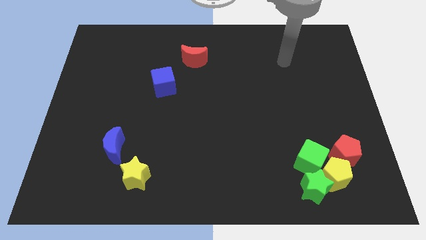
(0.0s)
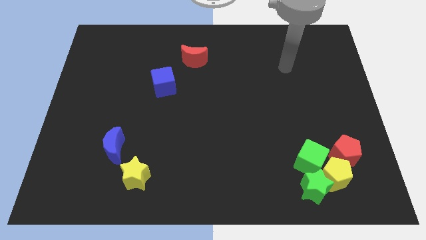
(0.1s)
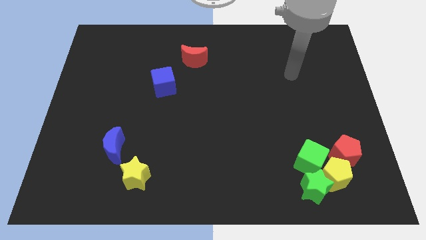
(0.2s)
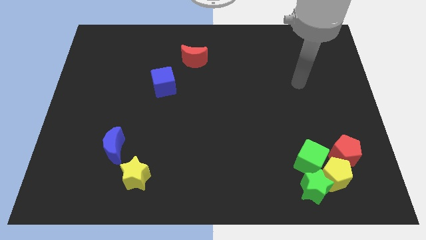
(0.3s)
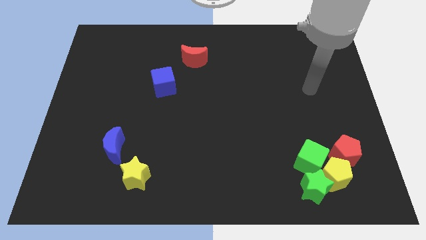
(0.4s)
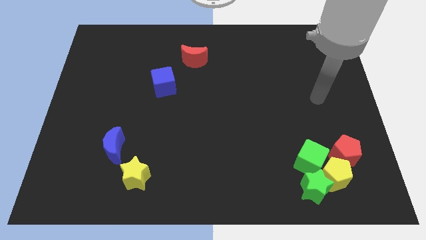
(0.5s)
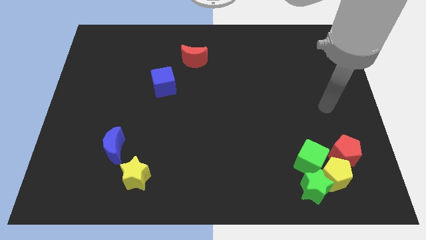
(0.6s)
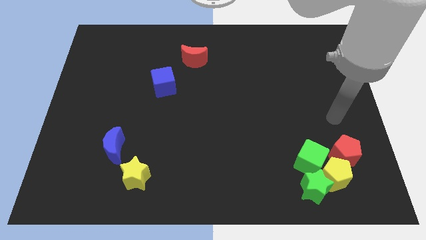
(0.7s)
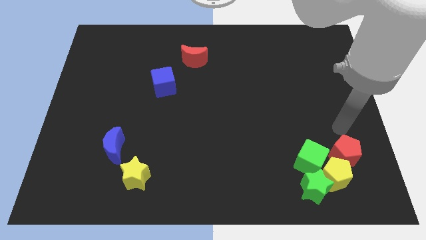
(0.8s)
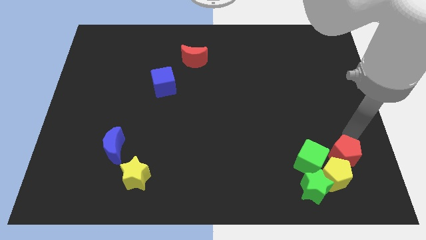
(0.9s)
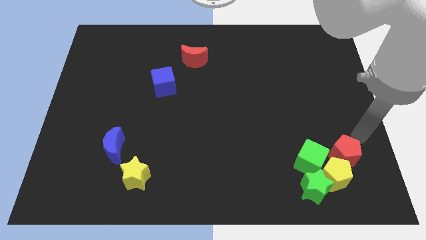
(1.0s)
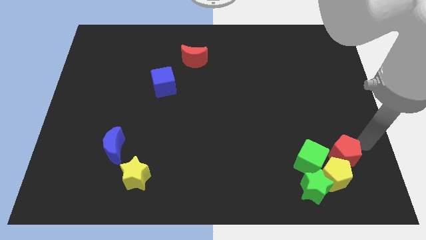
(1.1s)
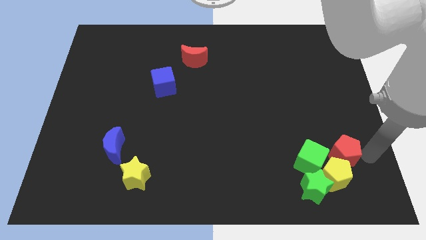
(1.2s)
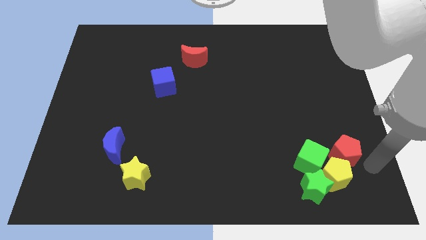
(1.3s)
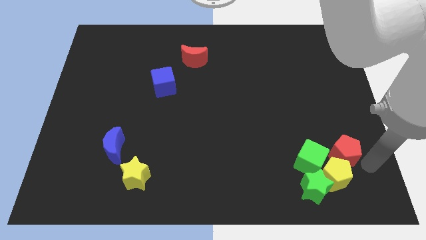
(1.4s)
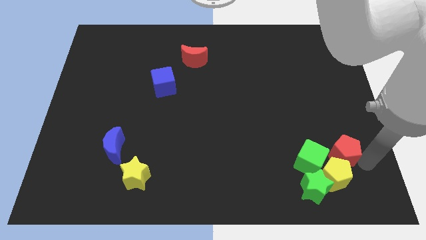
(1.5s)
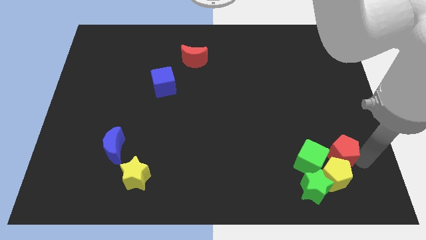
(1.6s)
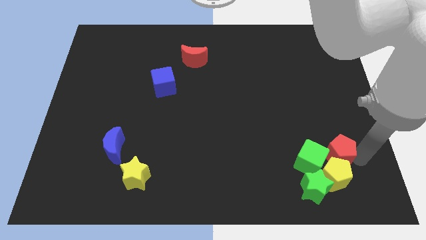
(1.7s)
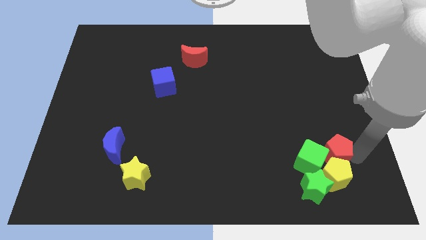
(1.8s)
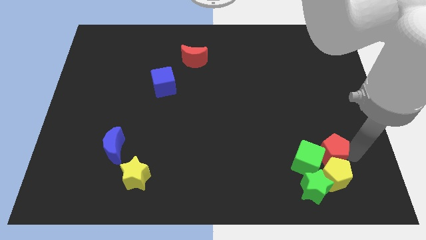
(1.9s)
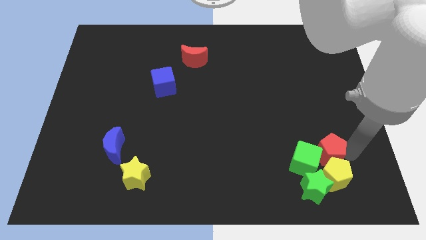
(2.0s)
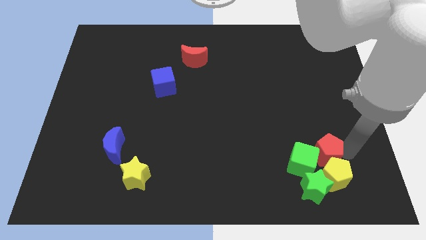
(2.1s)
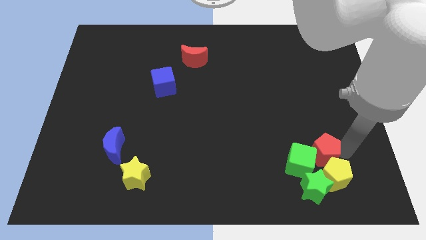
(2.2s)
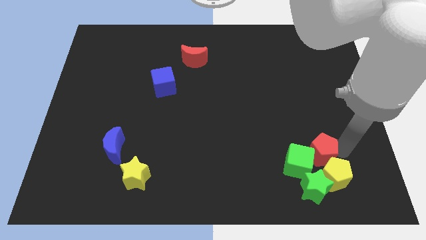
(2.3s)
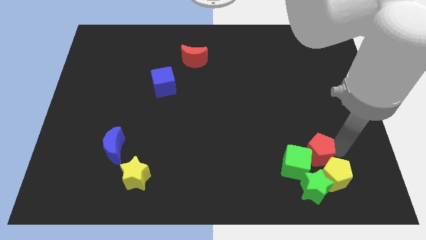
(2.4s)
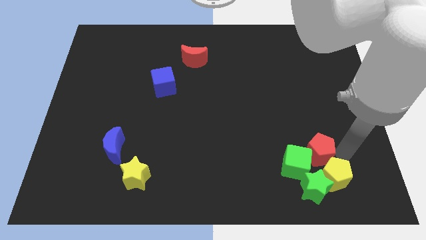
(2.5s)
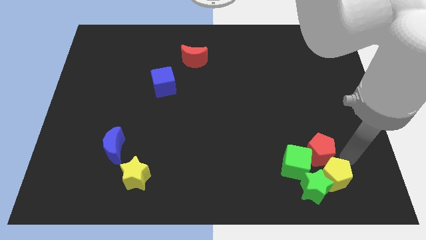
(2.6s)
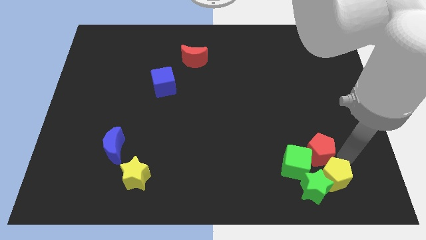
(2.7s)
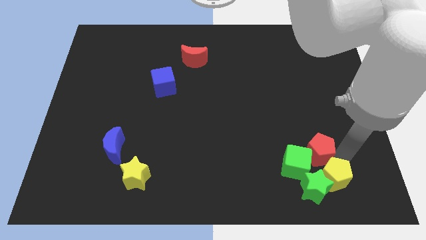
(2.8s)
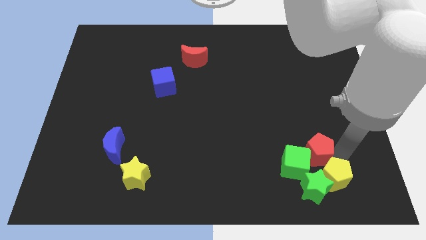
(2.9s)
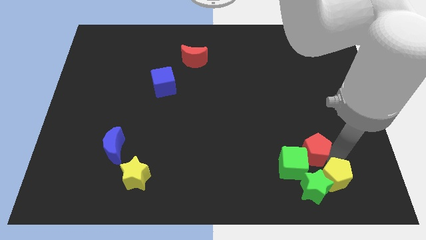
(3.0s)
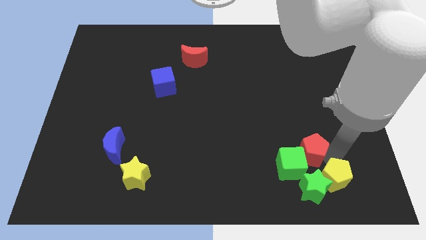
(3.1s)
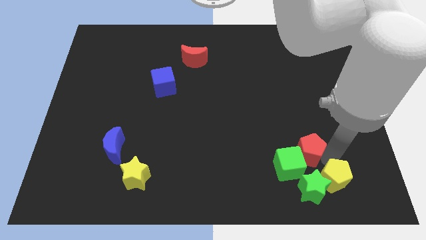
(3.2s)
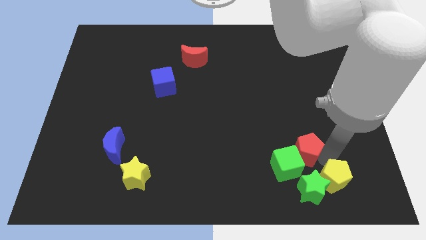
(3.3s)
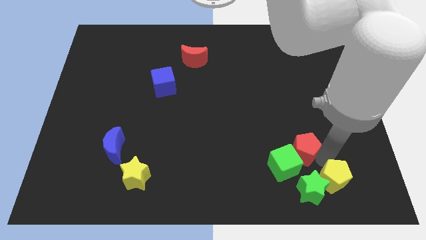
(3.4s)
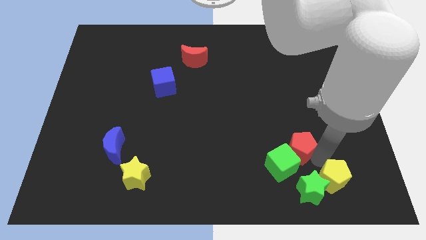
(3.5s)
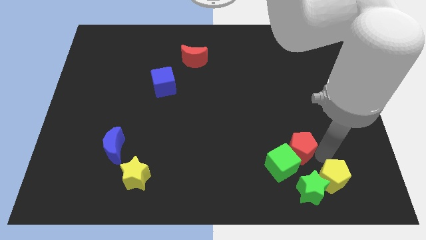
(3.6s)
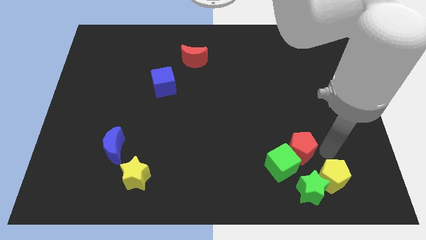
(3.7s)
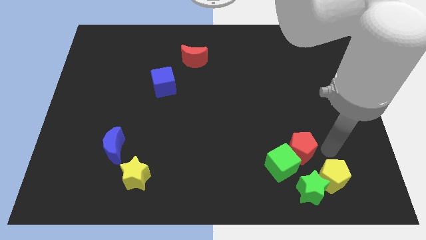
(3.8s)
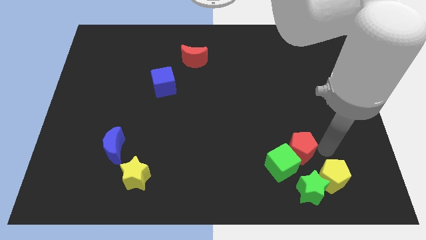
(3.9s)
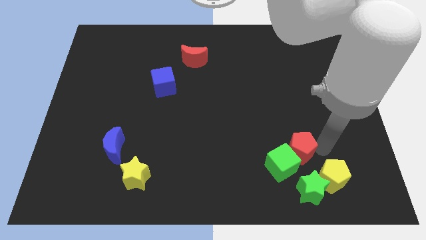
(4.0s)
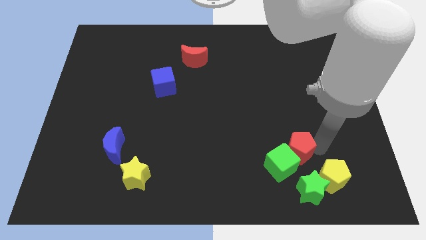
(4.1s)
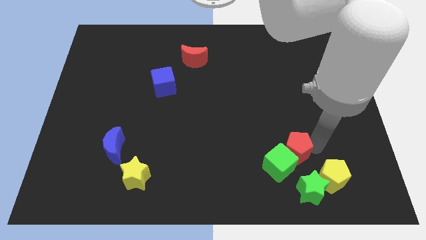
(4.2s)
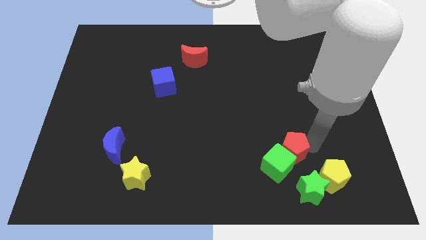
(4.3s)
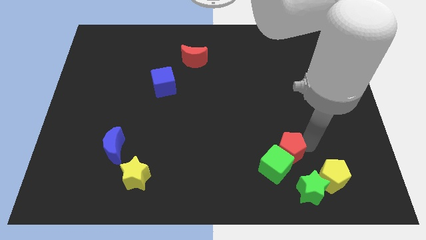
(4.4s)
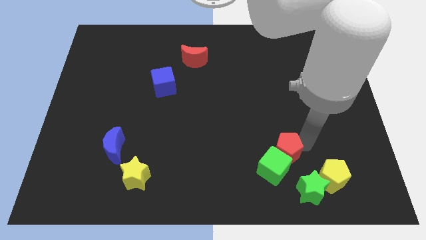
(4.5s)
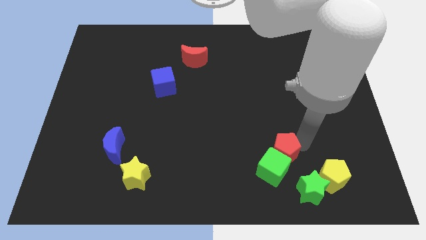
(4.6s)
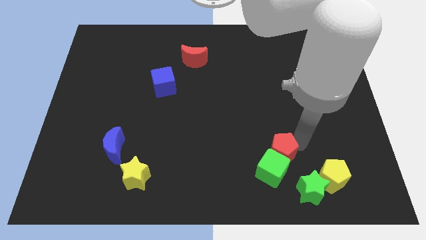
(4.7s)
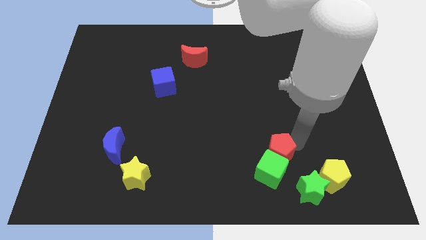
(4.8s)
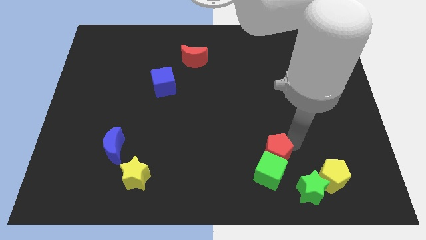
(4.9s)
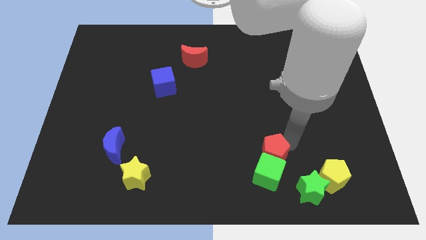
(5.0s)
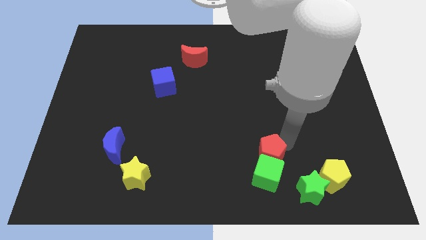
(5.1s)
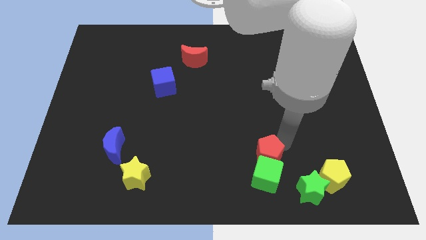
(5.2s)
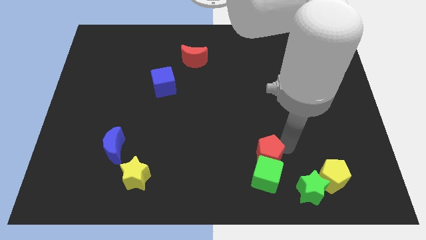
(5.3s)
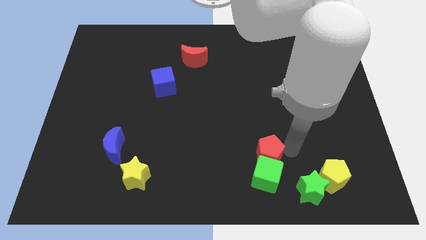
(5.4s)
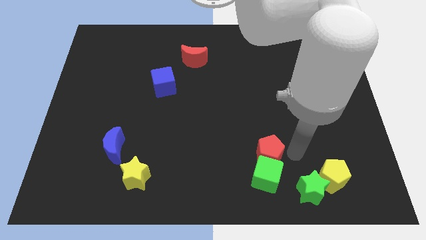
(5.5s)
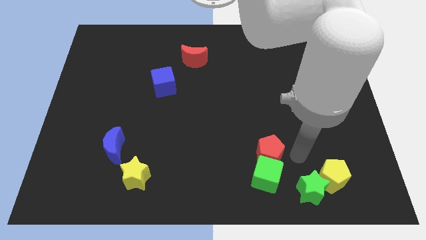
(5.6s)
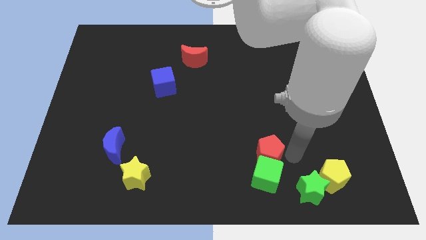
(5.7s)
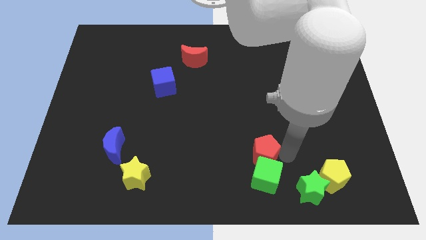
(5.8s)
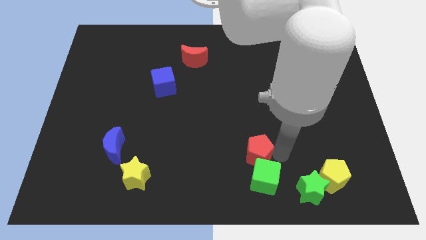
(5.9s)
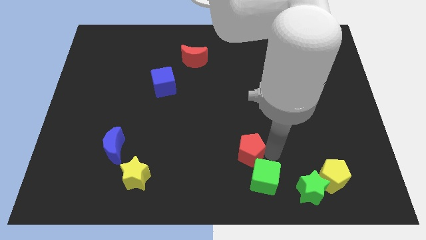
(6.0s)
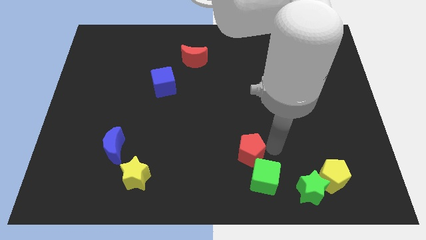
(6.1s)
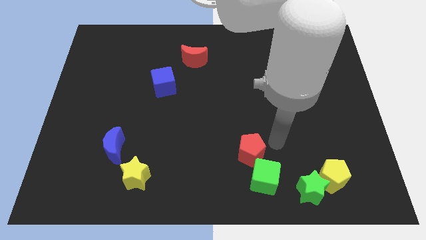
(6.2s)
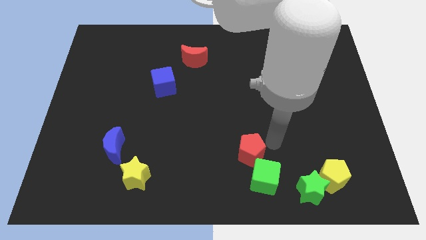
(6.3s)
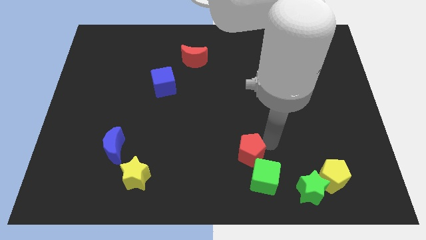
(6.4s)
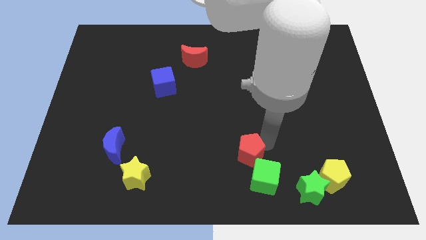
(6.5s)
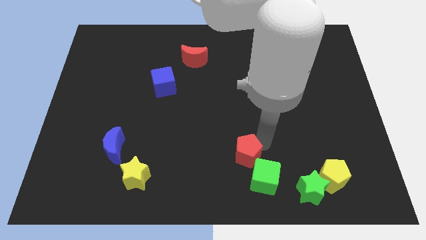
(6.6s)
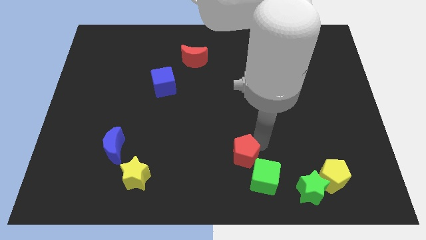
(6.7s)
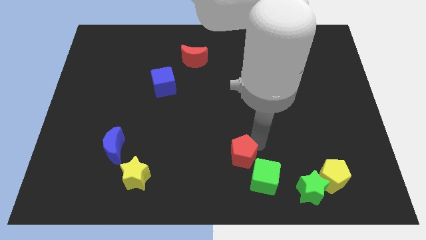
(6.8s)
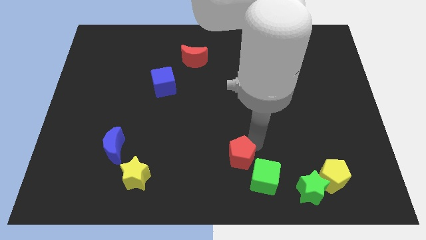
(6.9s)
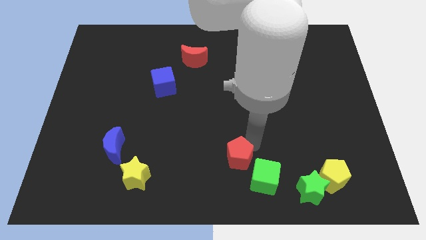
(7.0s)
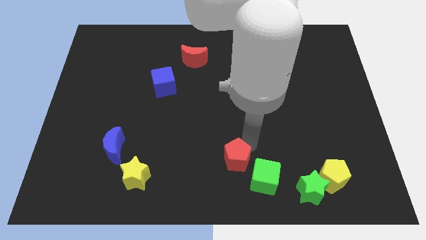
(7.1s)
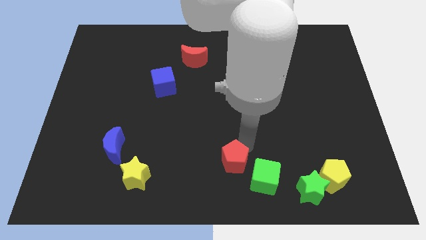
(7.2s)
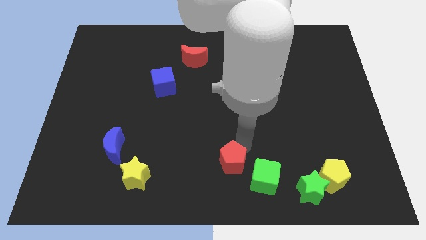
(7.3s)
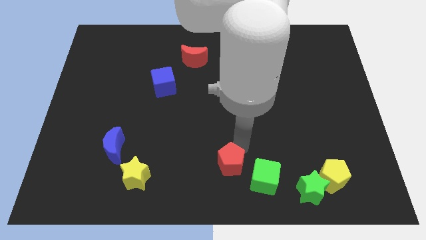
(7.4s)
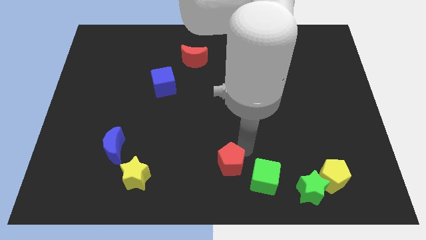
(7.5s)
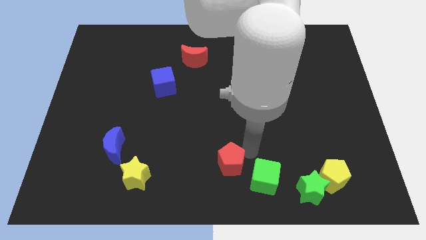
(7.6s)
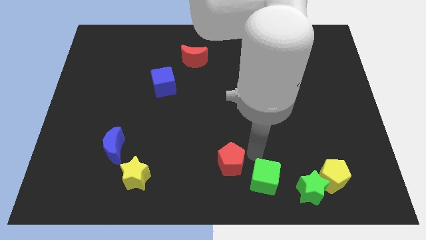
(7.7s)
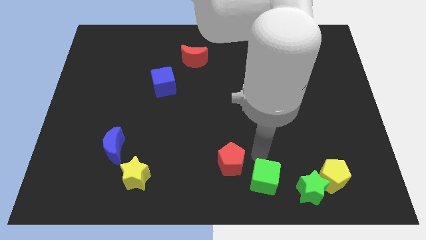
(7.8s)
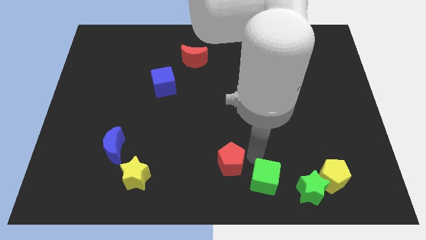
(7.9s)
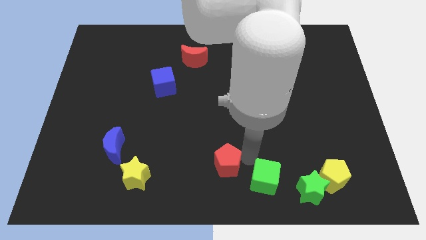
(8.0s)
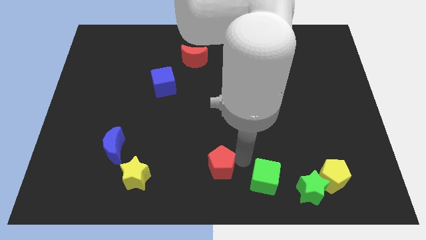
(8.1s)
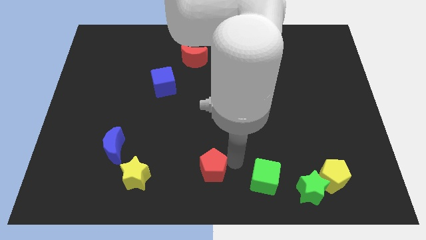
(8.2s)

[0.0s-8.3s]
slide the red pentagon to the right of the yellow star
